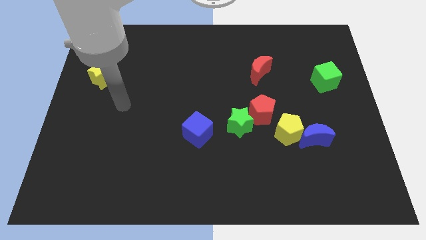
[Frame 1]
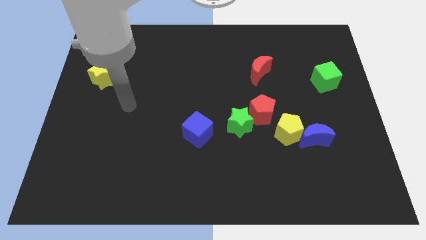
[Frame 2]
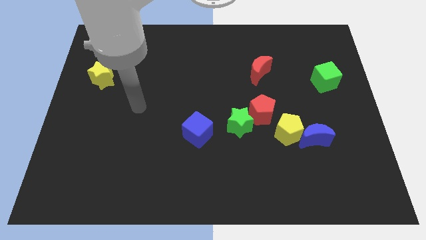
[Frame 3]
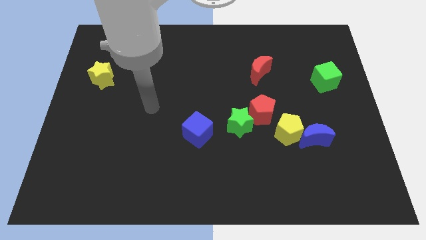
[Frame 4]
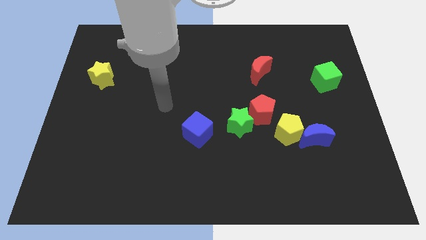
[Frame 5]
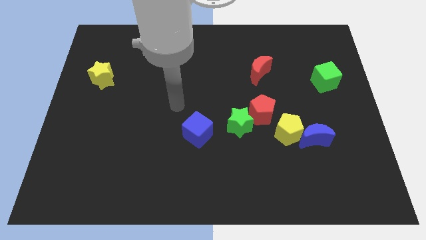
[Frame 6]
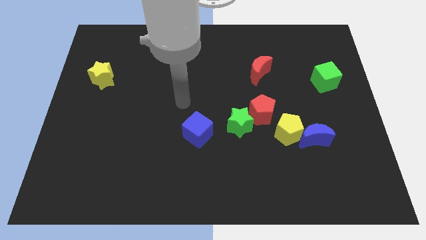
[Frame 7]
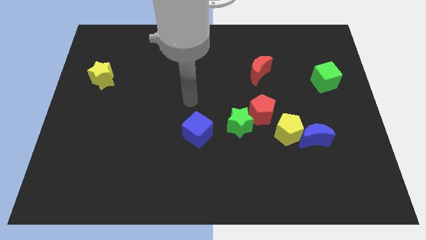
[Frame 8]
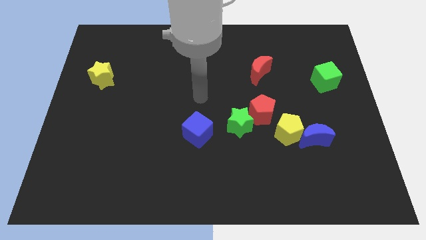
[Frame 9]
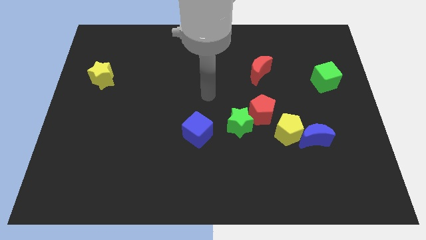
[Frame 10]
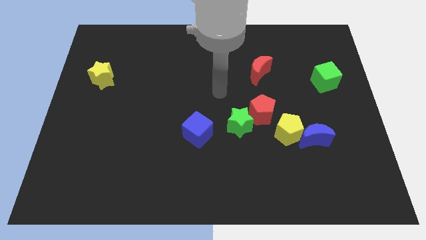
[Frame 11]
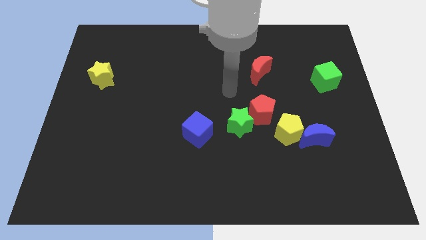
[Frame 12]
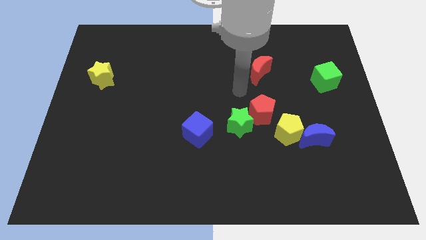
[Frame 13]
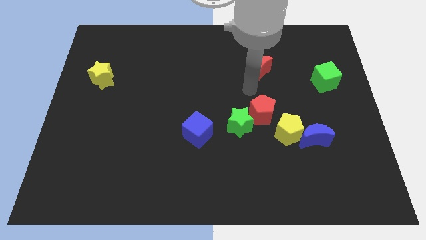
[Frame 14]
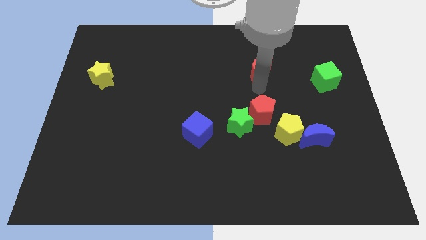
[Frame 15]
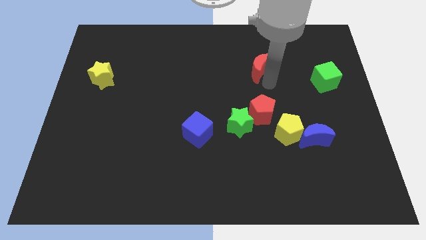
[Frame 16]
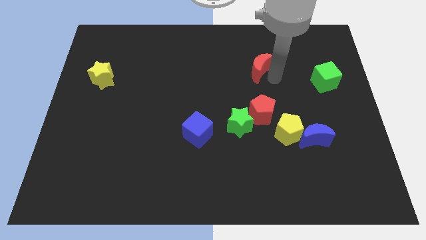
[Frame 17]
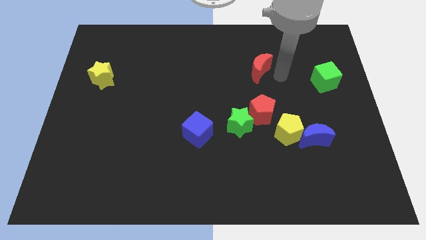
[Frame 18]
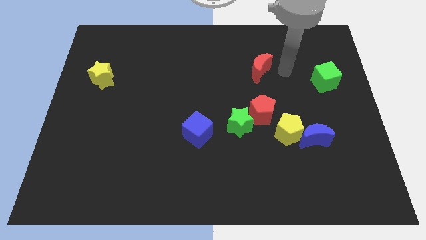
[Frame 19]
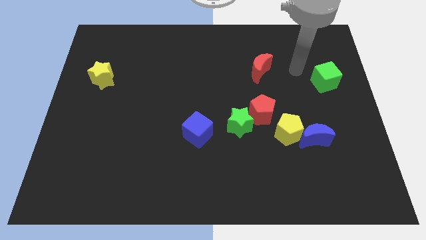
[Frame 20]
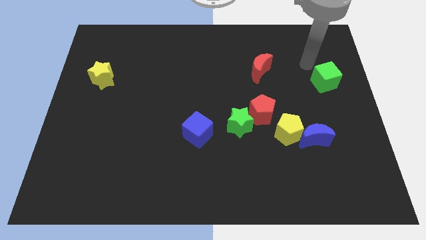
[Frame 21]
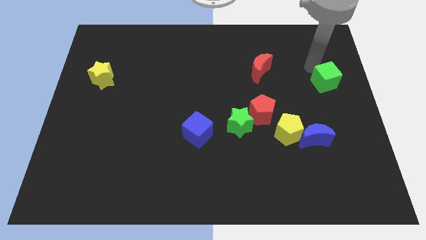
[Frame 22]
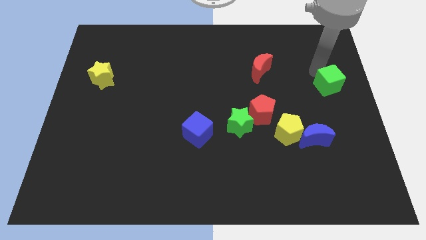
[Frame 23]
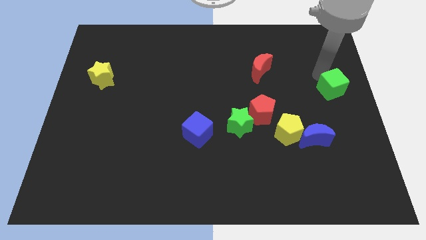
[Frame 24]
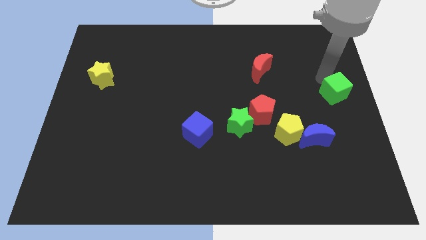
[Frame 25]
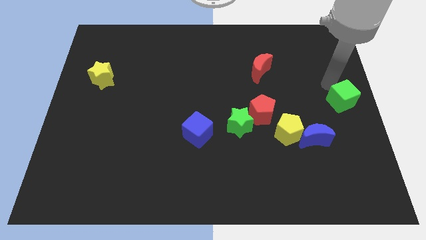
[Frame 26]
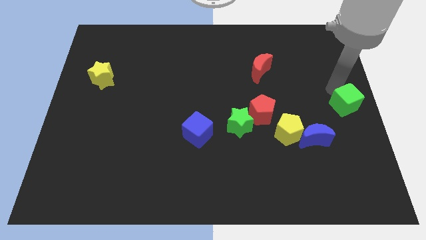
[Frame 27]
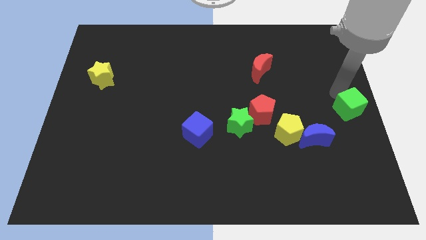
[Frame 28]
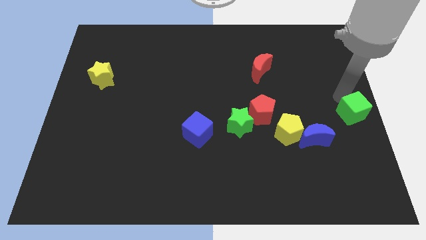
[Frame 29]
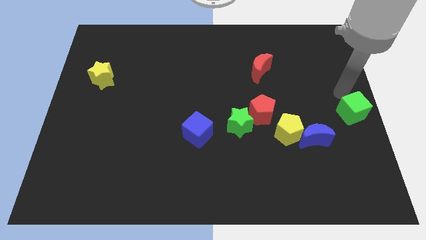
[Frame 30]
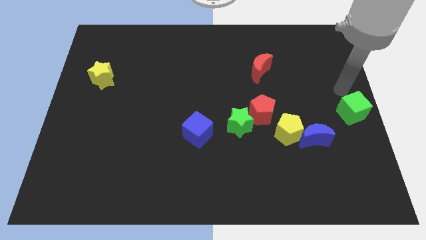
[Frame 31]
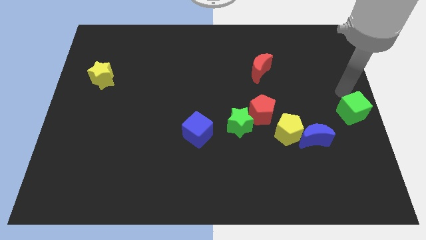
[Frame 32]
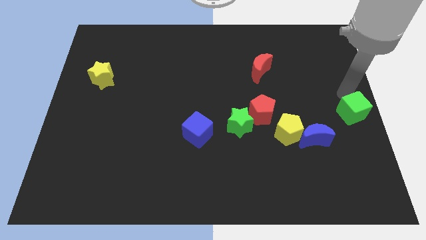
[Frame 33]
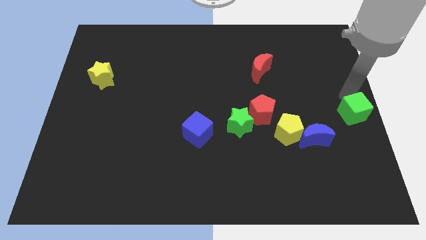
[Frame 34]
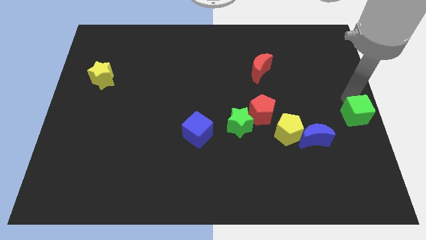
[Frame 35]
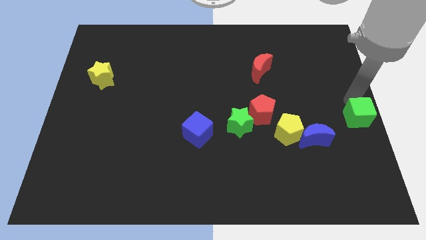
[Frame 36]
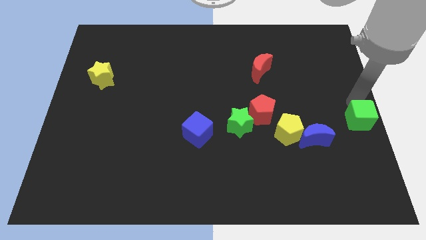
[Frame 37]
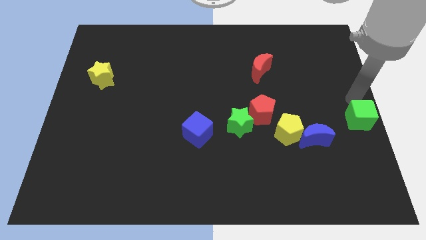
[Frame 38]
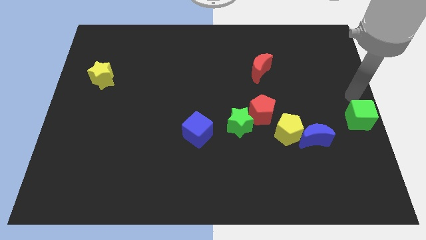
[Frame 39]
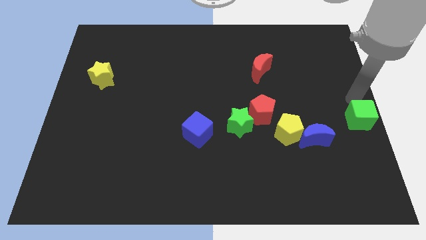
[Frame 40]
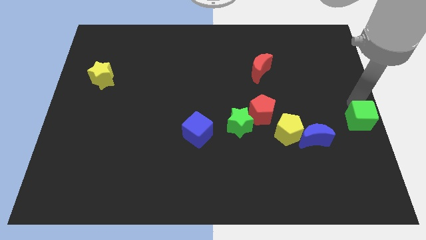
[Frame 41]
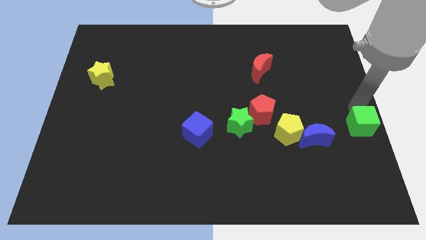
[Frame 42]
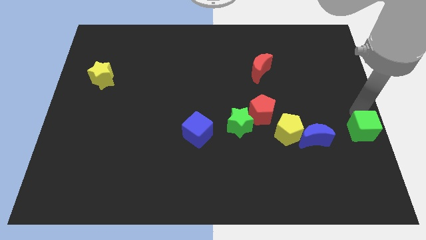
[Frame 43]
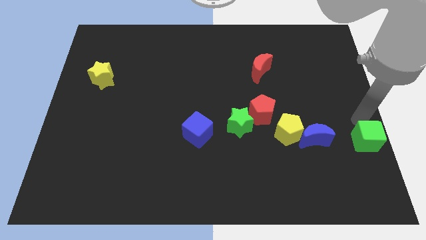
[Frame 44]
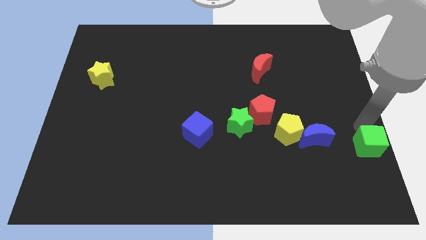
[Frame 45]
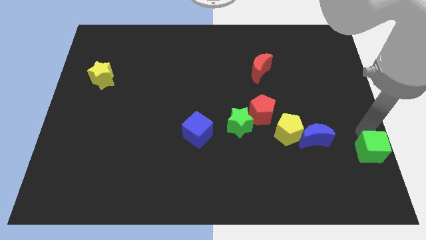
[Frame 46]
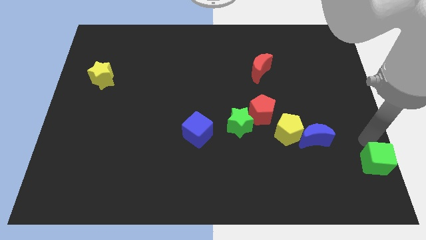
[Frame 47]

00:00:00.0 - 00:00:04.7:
put the green cube to the lower right corner

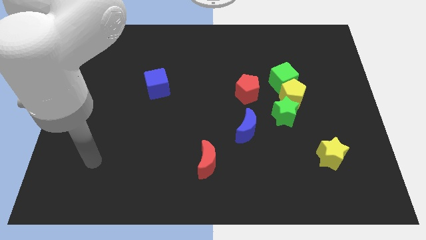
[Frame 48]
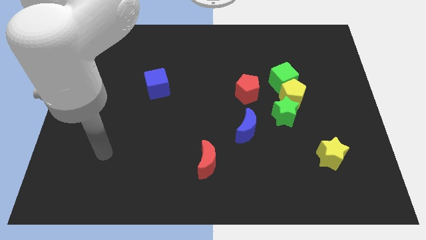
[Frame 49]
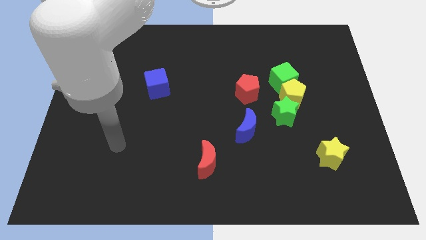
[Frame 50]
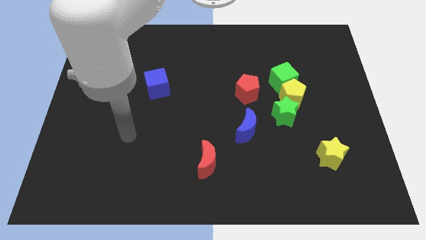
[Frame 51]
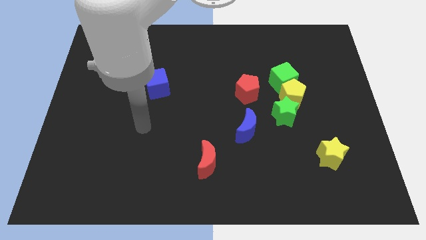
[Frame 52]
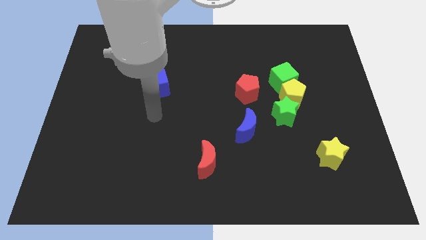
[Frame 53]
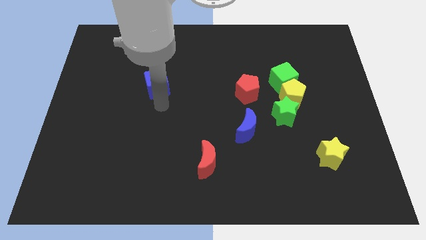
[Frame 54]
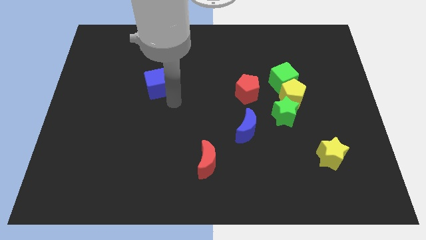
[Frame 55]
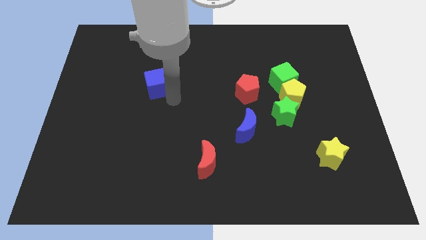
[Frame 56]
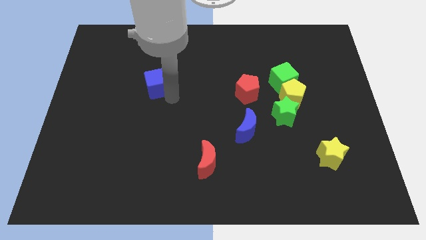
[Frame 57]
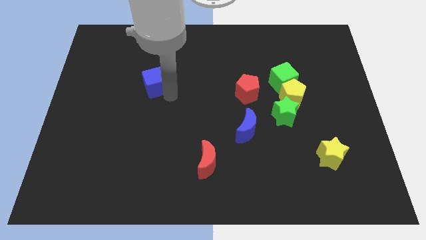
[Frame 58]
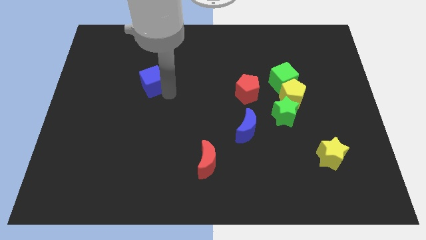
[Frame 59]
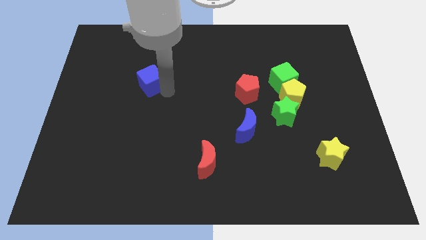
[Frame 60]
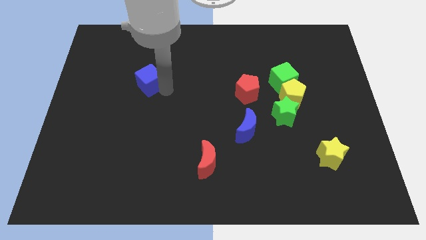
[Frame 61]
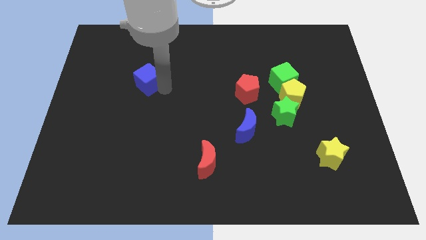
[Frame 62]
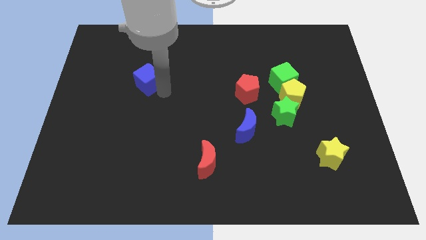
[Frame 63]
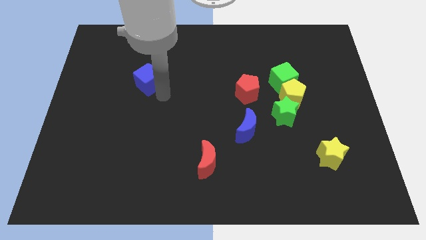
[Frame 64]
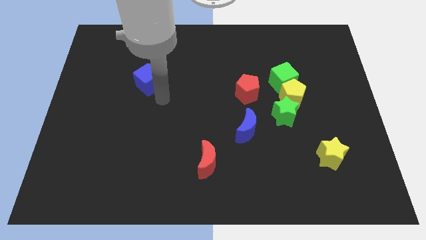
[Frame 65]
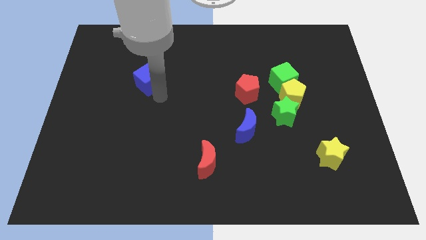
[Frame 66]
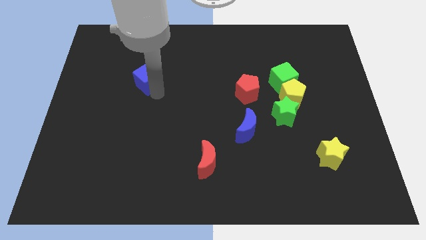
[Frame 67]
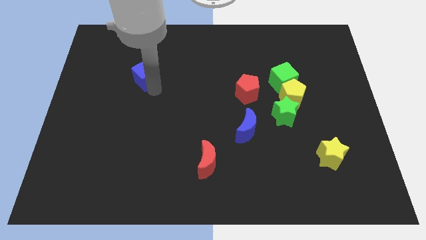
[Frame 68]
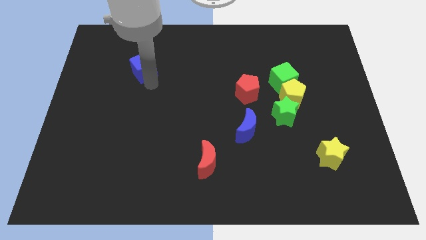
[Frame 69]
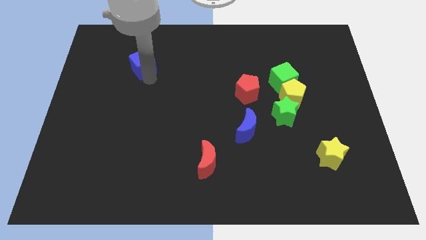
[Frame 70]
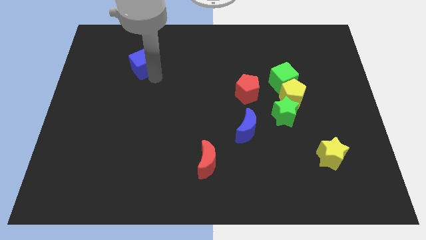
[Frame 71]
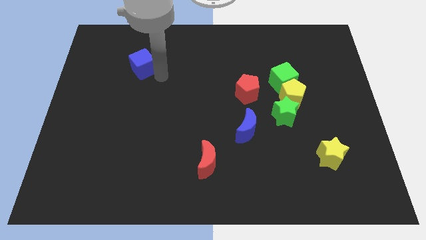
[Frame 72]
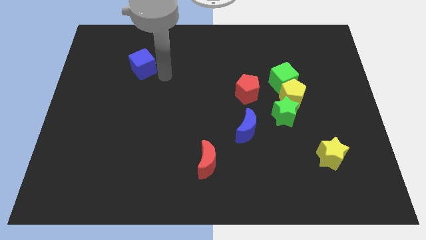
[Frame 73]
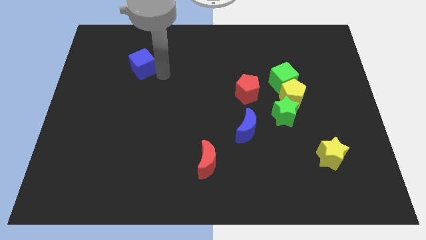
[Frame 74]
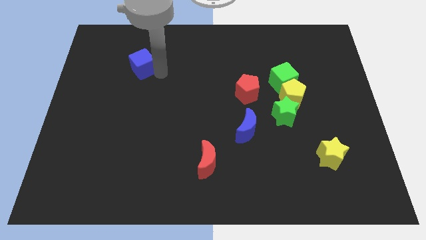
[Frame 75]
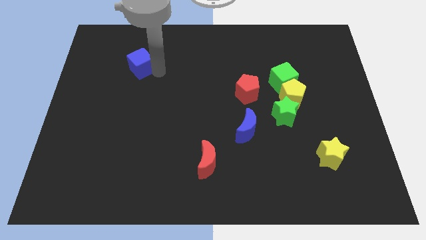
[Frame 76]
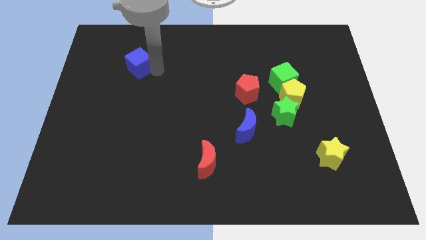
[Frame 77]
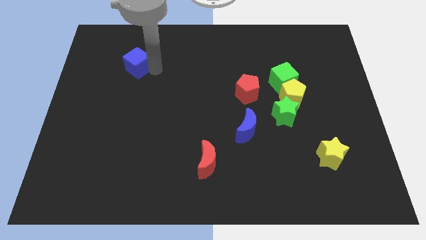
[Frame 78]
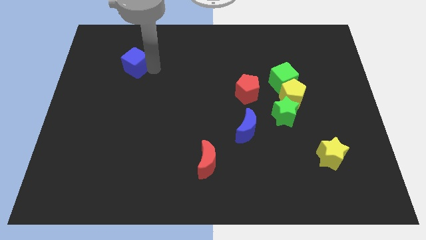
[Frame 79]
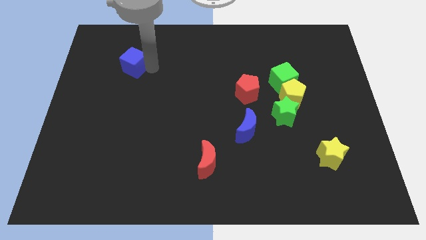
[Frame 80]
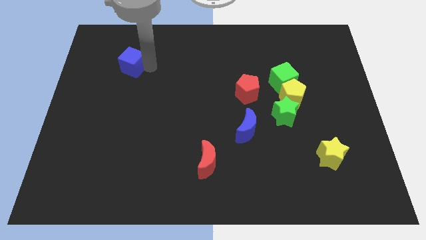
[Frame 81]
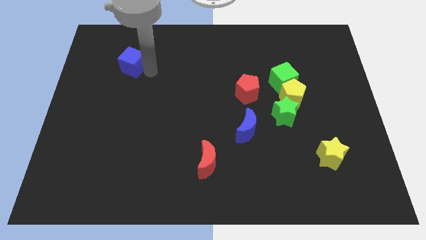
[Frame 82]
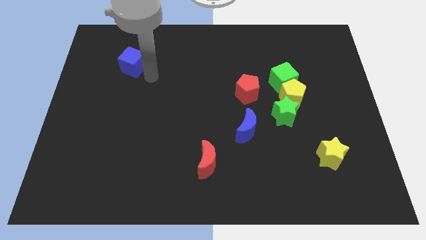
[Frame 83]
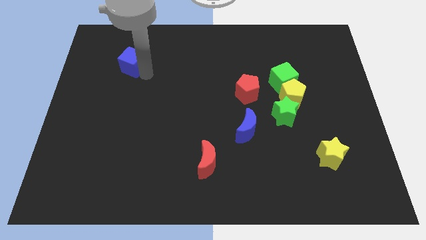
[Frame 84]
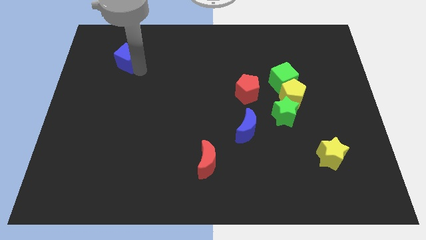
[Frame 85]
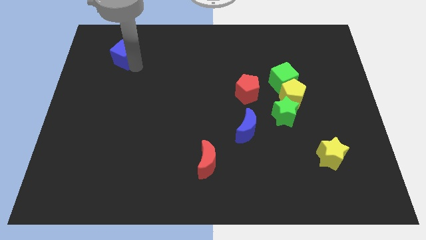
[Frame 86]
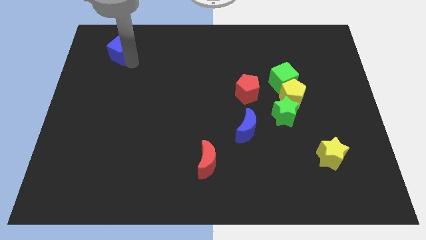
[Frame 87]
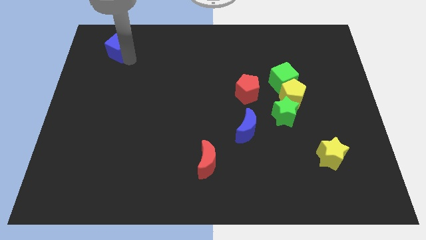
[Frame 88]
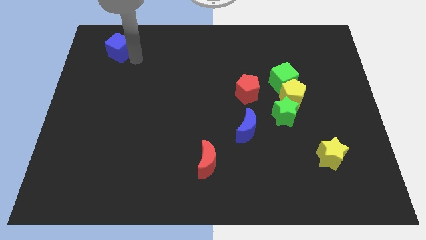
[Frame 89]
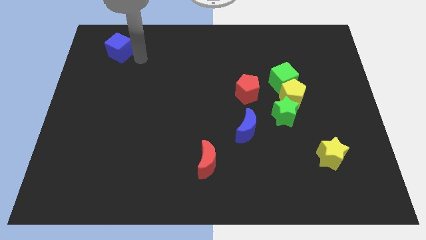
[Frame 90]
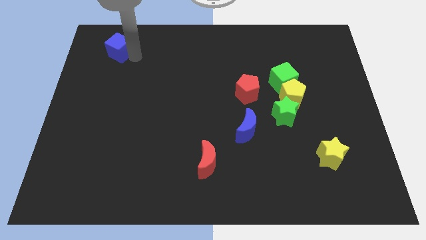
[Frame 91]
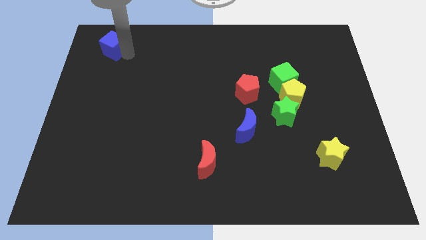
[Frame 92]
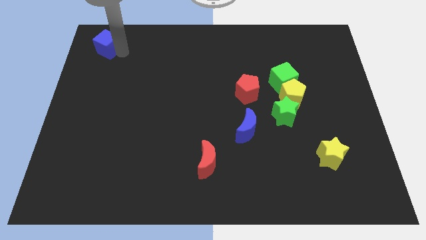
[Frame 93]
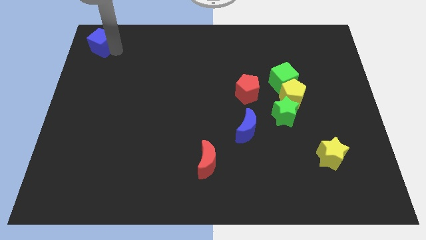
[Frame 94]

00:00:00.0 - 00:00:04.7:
push the blue cube to the top left of the board
